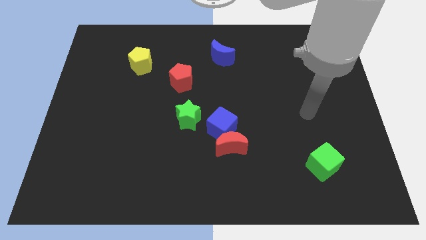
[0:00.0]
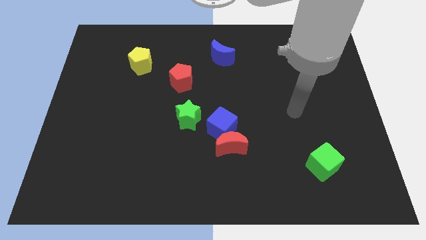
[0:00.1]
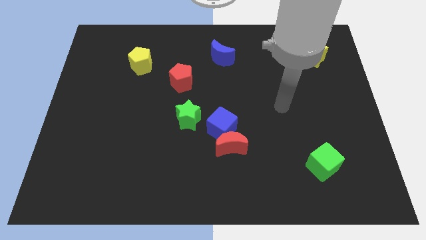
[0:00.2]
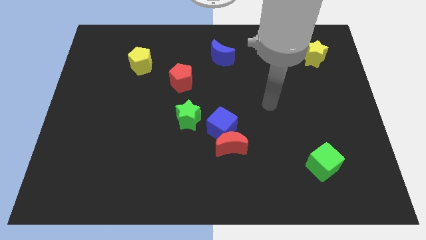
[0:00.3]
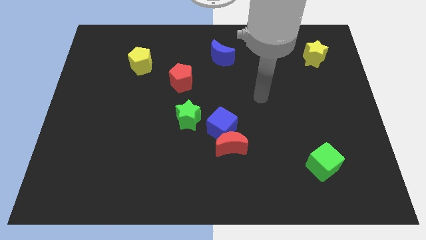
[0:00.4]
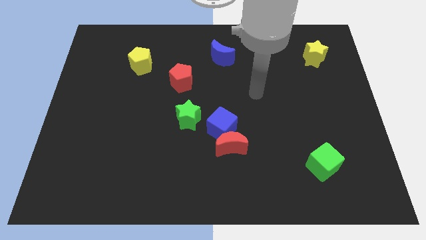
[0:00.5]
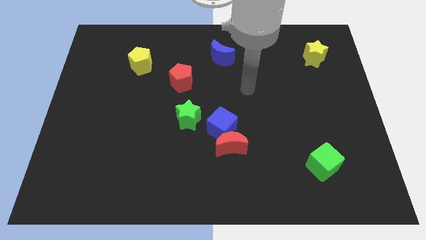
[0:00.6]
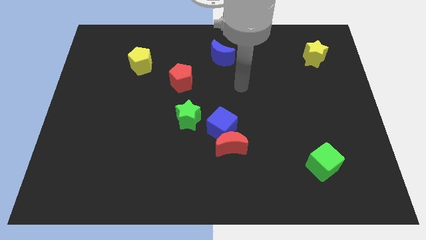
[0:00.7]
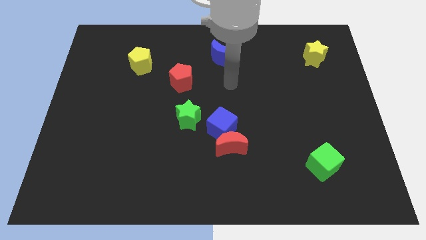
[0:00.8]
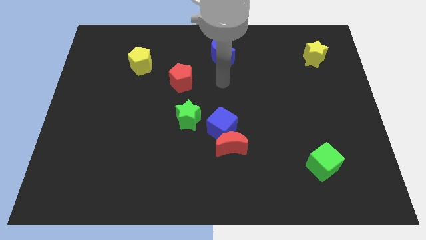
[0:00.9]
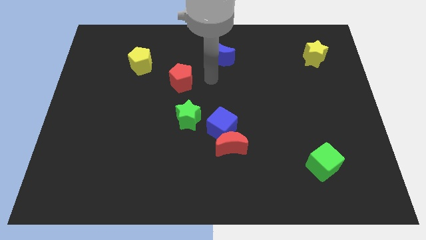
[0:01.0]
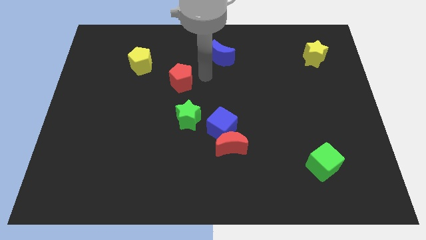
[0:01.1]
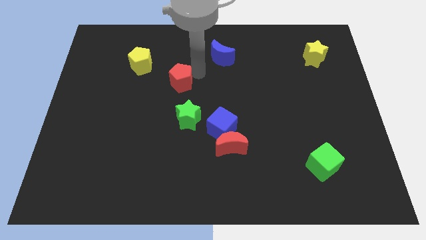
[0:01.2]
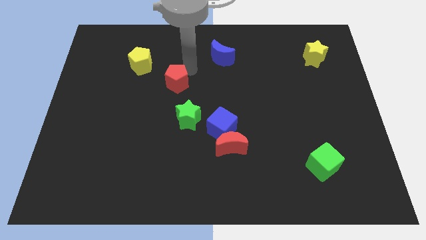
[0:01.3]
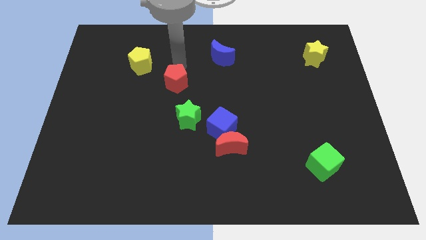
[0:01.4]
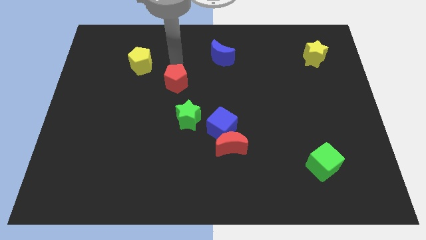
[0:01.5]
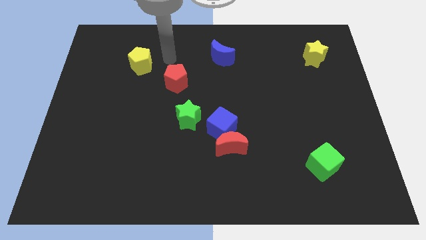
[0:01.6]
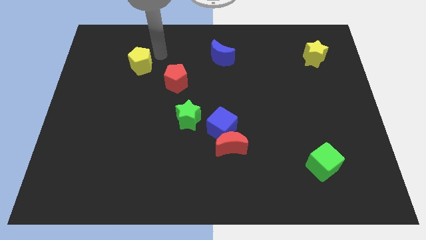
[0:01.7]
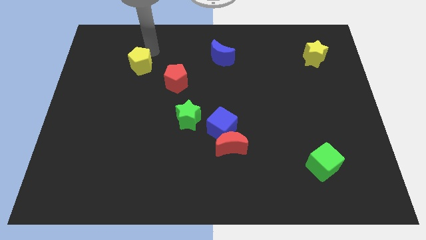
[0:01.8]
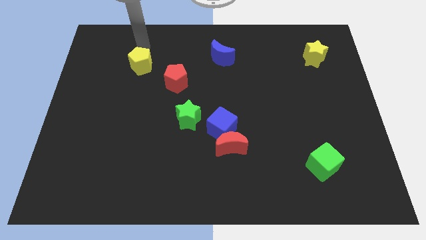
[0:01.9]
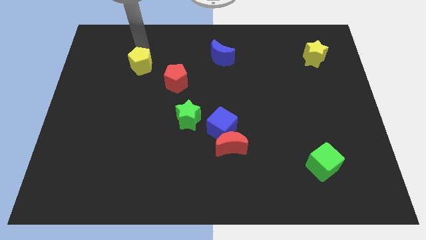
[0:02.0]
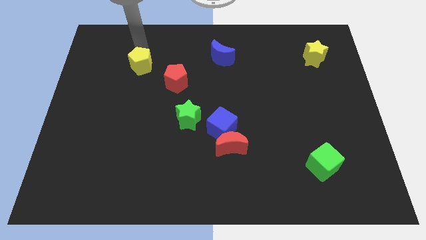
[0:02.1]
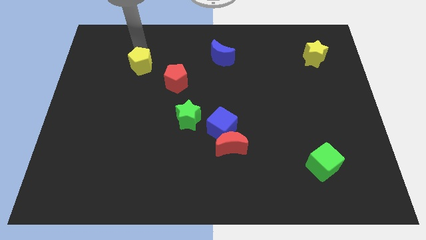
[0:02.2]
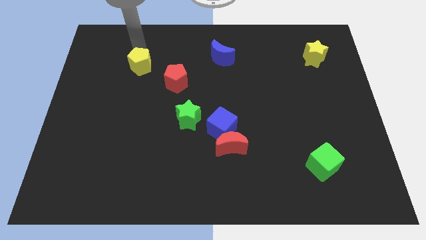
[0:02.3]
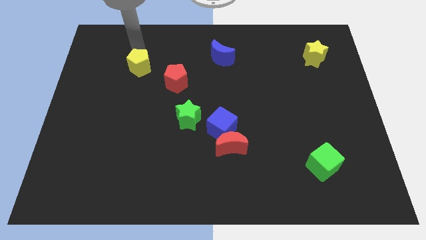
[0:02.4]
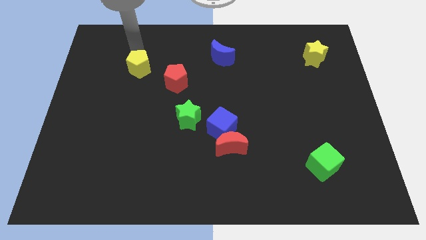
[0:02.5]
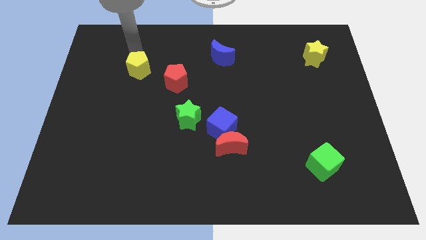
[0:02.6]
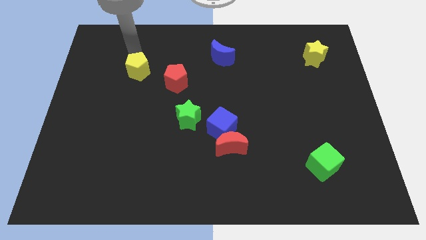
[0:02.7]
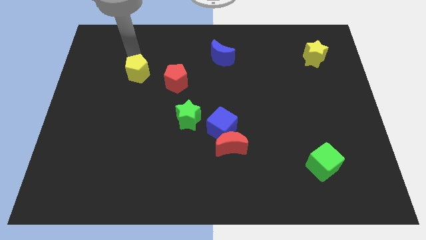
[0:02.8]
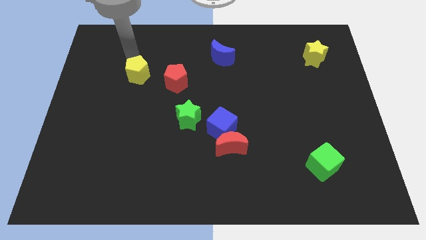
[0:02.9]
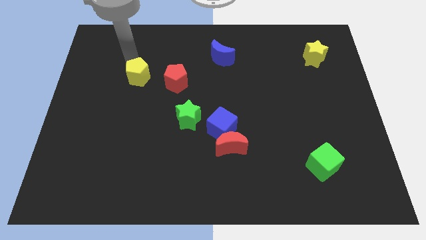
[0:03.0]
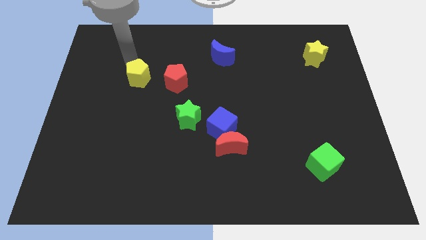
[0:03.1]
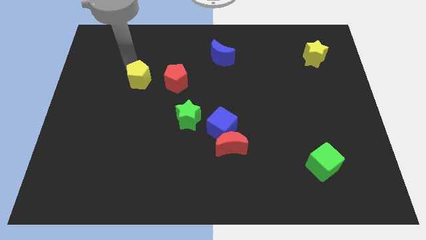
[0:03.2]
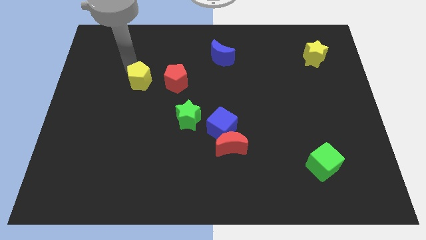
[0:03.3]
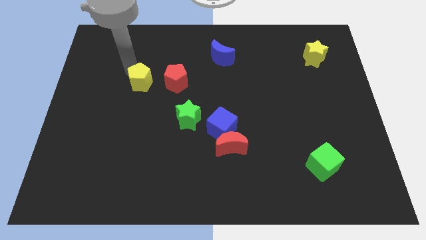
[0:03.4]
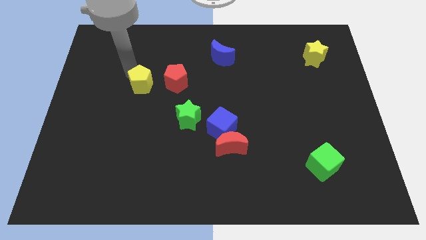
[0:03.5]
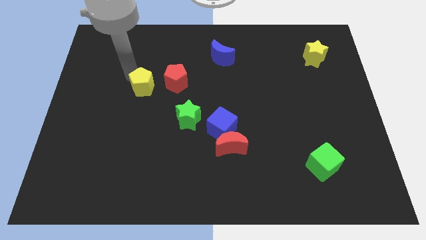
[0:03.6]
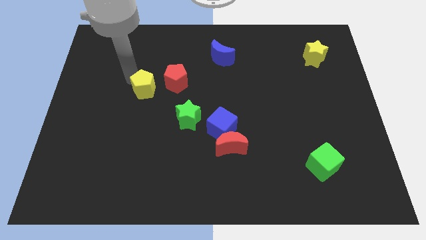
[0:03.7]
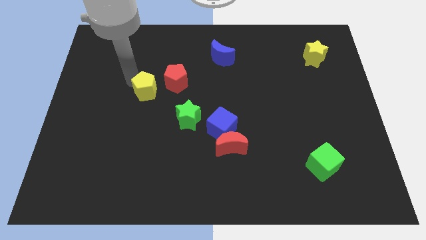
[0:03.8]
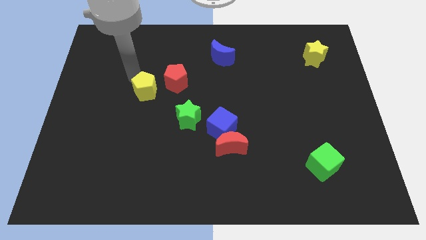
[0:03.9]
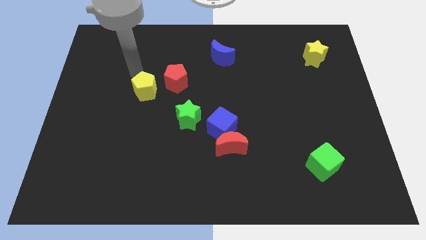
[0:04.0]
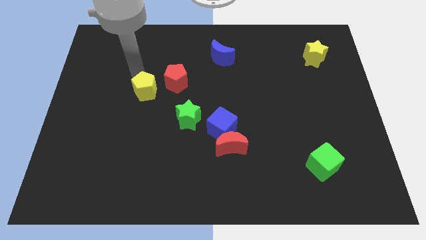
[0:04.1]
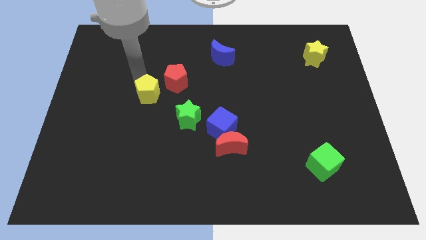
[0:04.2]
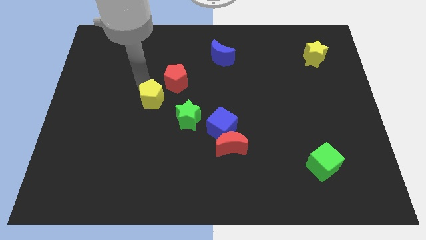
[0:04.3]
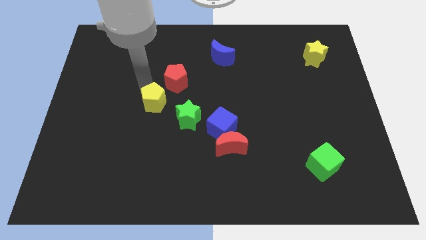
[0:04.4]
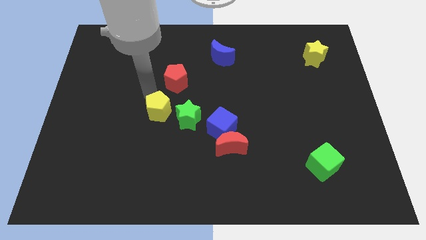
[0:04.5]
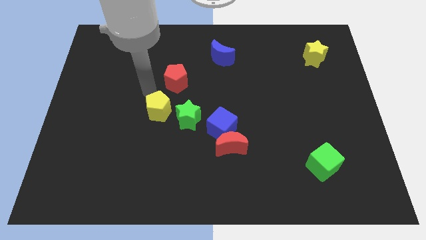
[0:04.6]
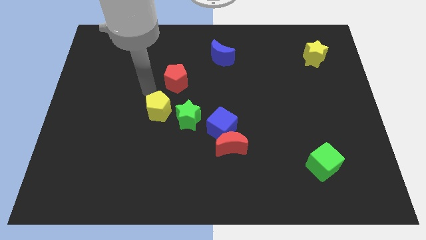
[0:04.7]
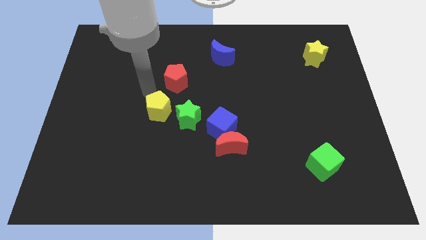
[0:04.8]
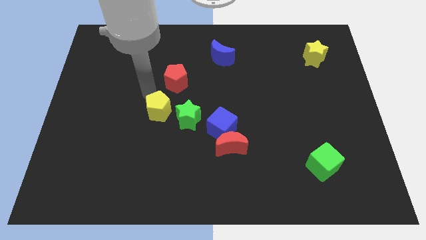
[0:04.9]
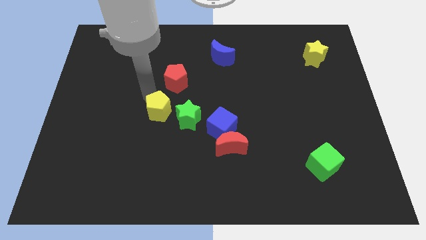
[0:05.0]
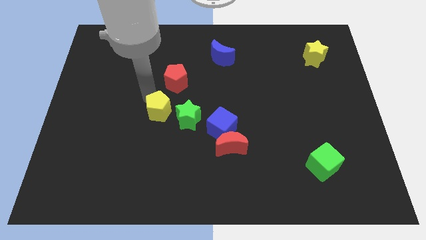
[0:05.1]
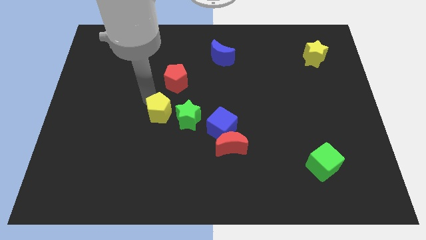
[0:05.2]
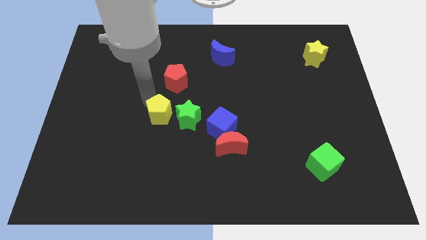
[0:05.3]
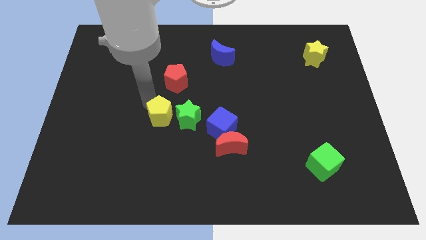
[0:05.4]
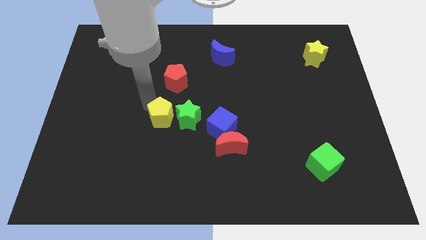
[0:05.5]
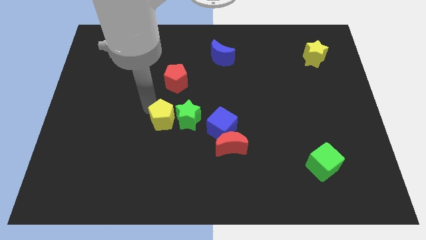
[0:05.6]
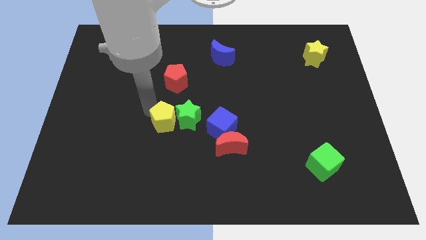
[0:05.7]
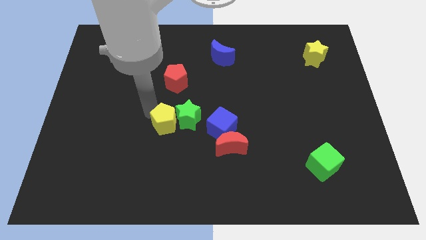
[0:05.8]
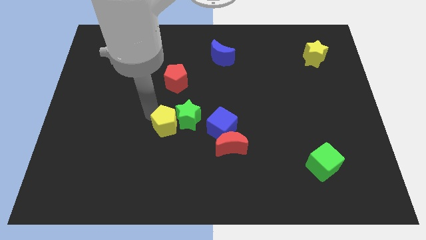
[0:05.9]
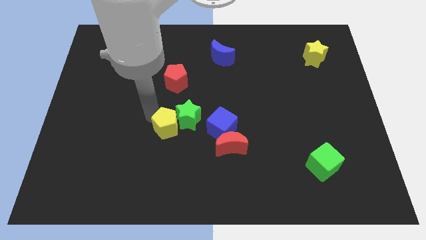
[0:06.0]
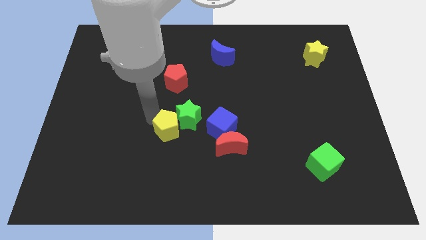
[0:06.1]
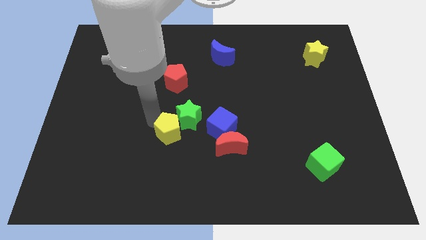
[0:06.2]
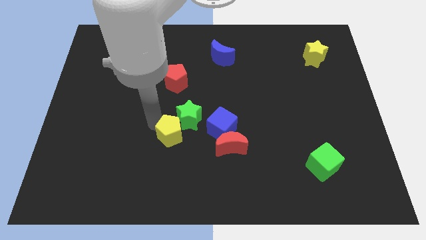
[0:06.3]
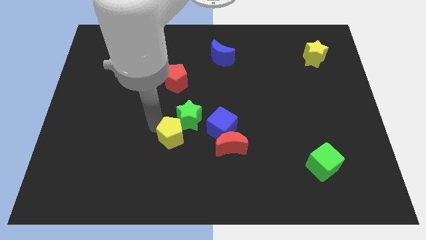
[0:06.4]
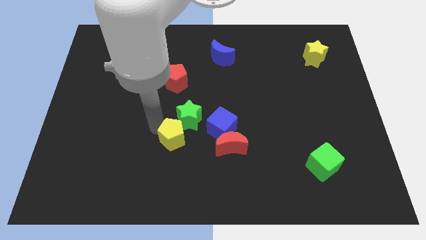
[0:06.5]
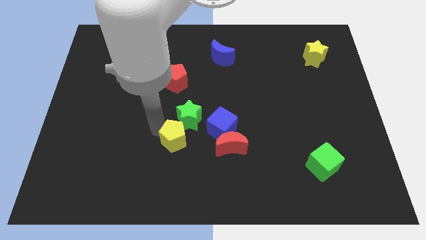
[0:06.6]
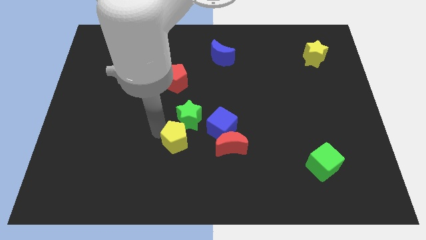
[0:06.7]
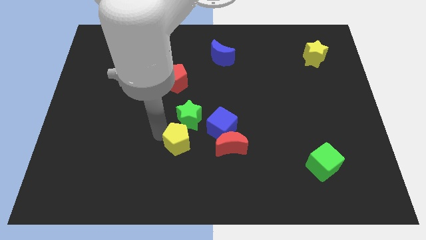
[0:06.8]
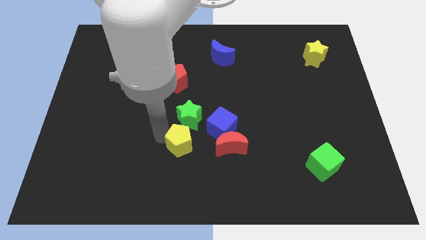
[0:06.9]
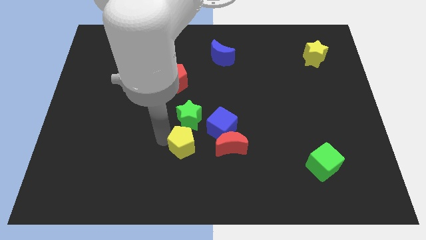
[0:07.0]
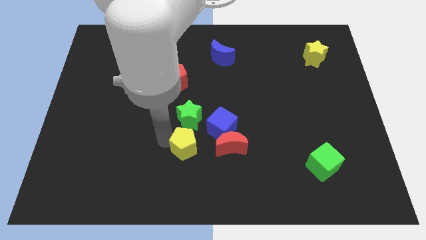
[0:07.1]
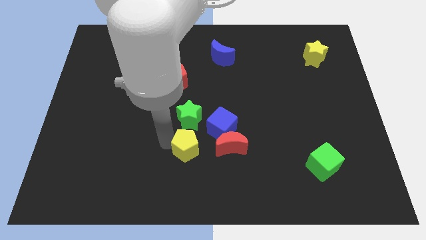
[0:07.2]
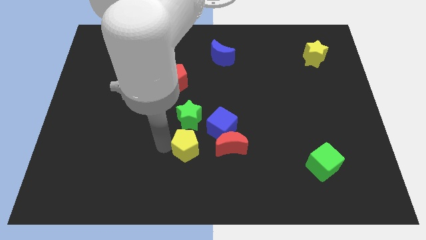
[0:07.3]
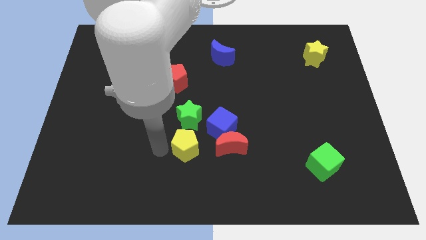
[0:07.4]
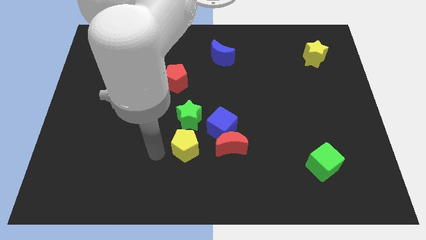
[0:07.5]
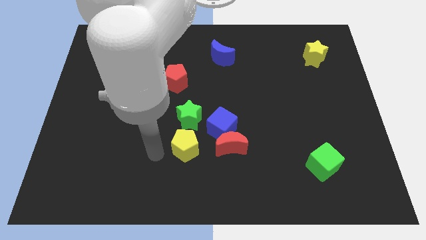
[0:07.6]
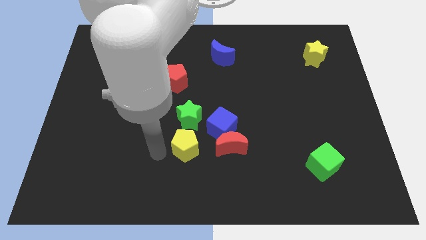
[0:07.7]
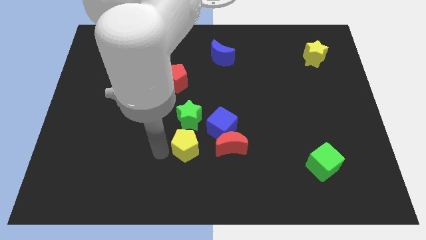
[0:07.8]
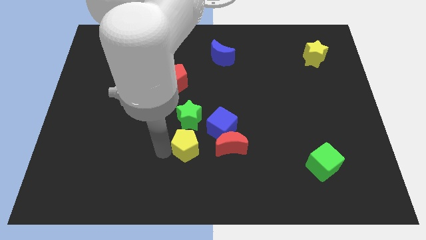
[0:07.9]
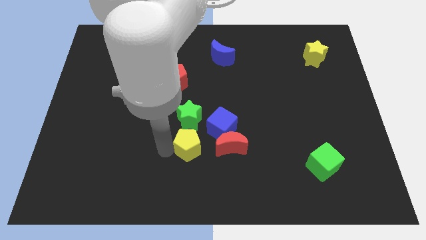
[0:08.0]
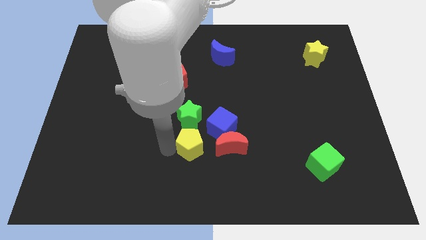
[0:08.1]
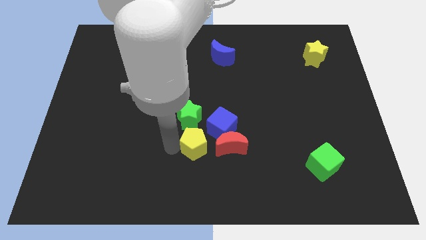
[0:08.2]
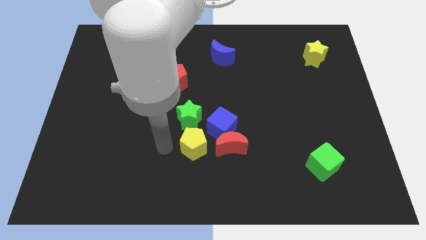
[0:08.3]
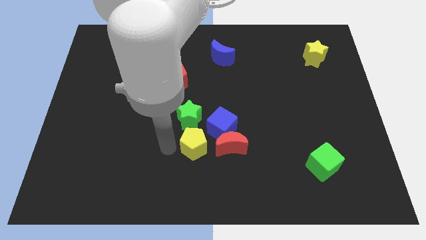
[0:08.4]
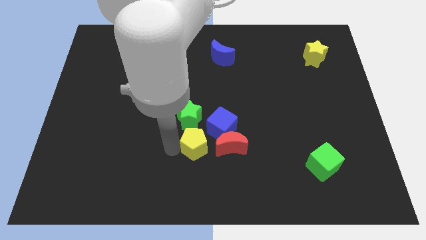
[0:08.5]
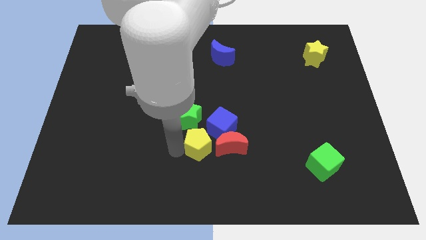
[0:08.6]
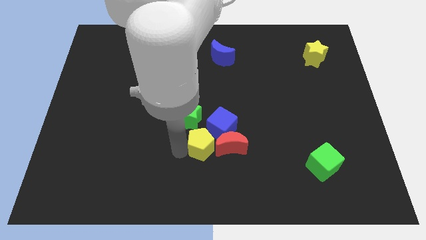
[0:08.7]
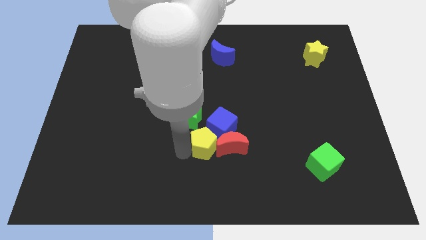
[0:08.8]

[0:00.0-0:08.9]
move the yellow pentagon to the red moon
